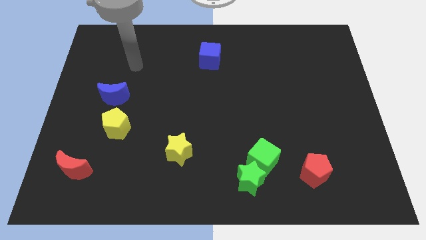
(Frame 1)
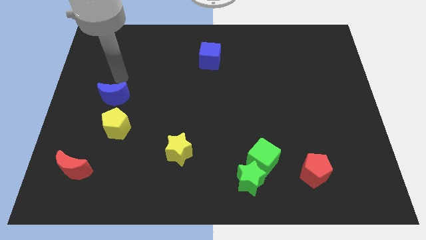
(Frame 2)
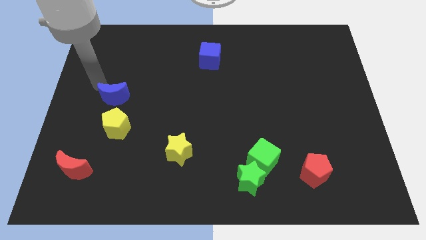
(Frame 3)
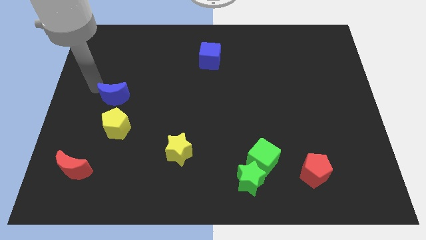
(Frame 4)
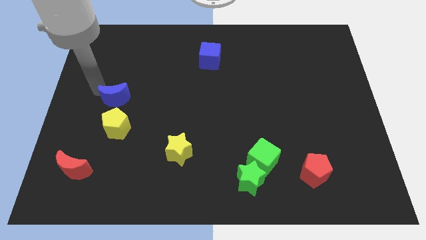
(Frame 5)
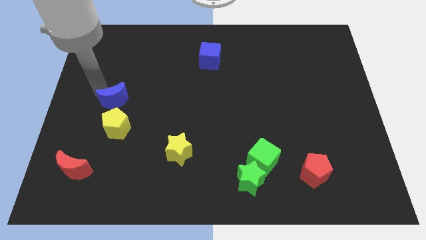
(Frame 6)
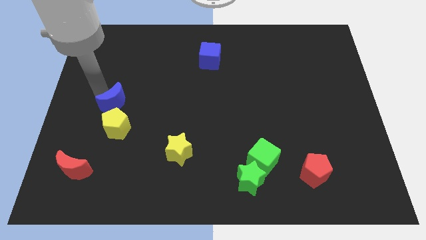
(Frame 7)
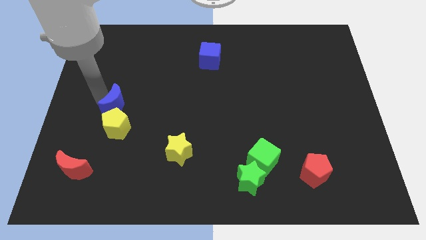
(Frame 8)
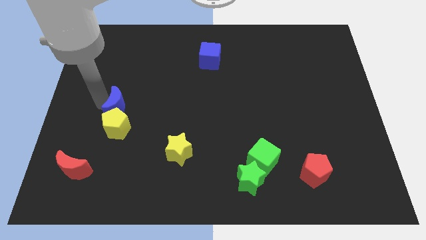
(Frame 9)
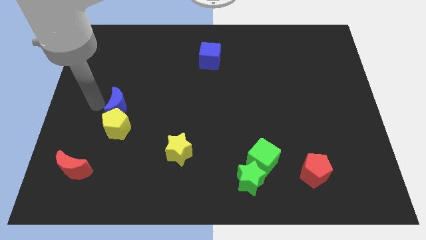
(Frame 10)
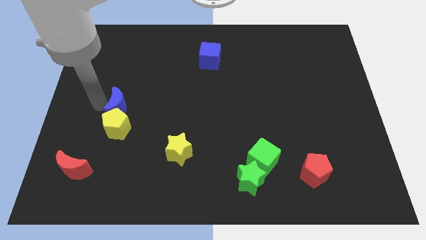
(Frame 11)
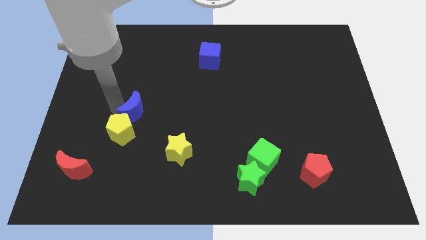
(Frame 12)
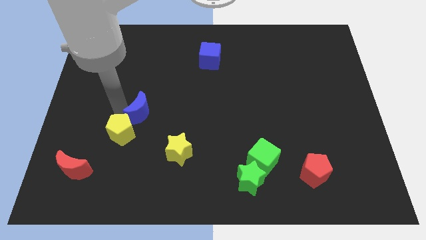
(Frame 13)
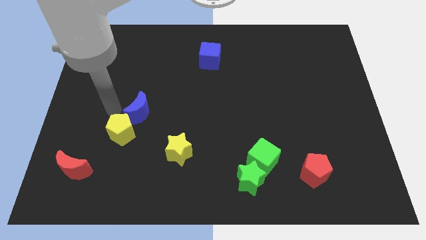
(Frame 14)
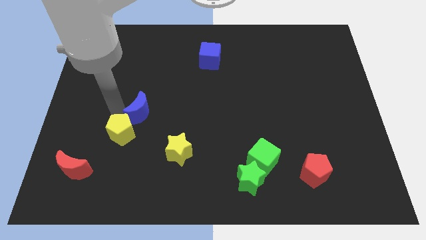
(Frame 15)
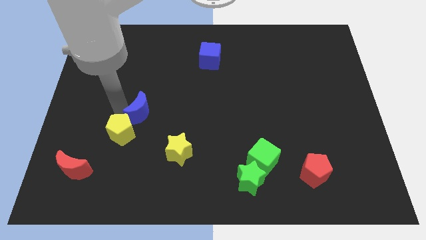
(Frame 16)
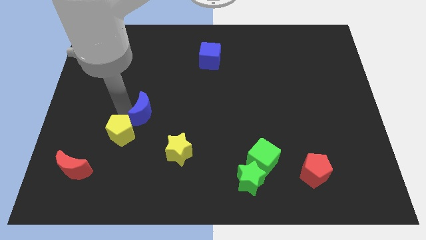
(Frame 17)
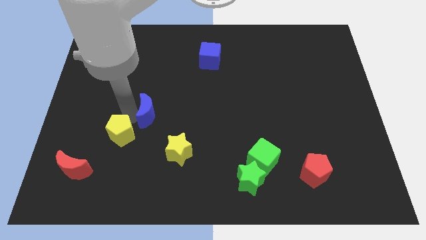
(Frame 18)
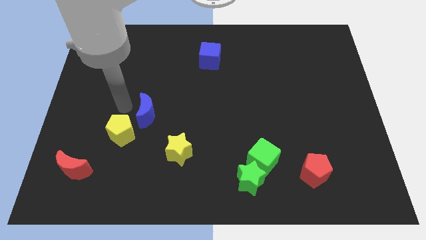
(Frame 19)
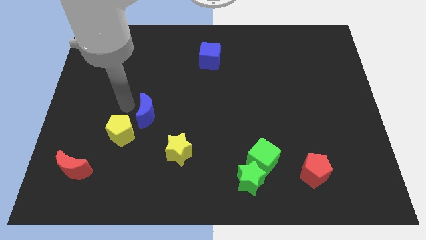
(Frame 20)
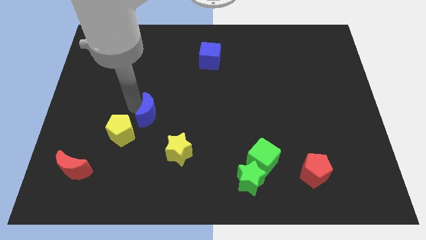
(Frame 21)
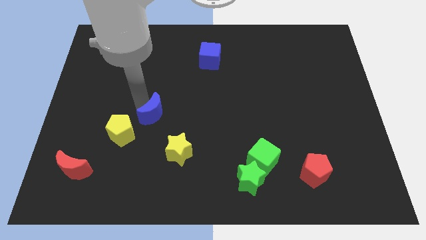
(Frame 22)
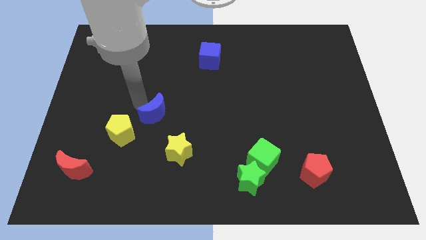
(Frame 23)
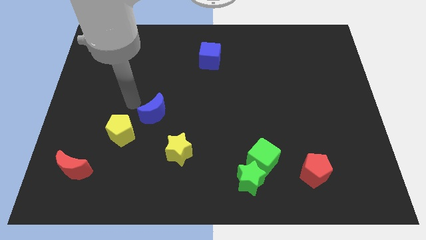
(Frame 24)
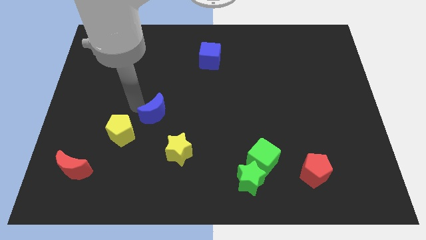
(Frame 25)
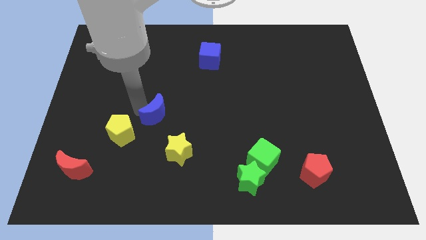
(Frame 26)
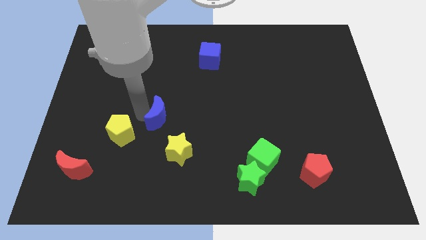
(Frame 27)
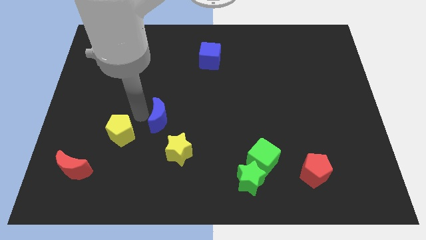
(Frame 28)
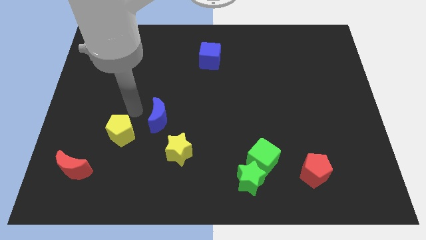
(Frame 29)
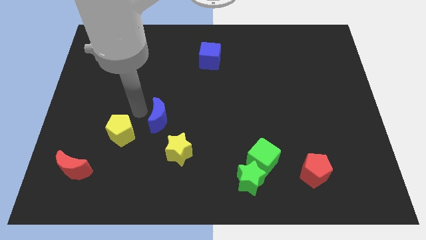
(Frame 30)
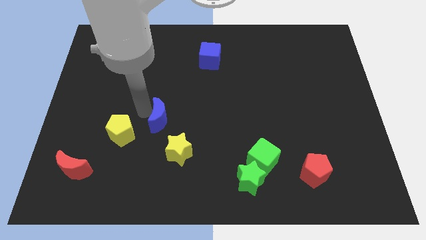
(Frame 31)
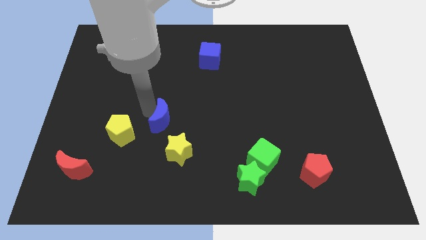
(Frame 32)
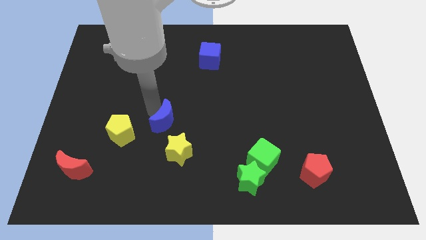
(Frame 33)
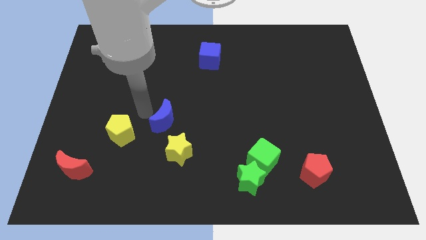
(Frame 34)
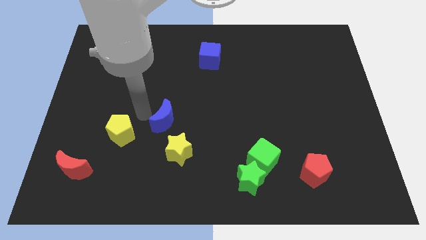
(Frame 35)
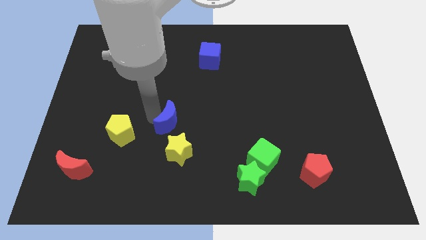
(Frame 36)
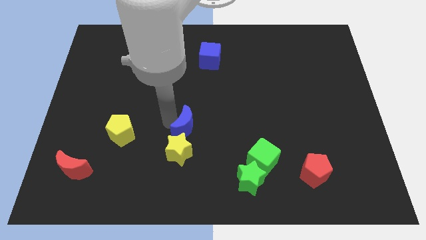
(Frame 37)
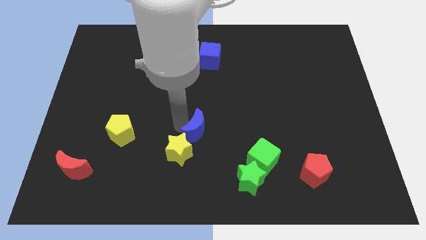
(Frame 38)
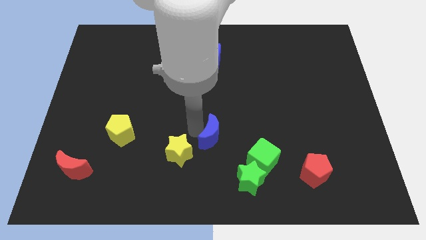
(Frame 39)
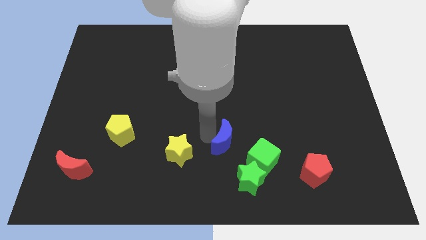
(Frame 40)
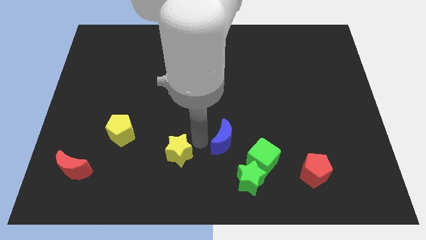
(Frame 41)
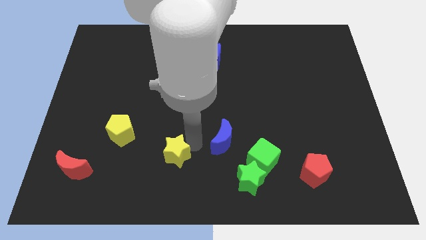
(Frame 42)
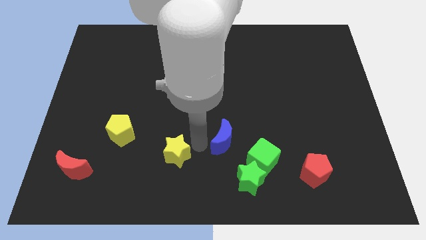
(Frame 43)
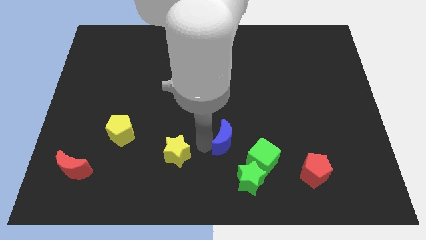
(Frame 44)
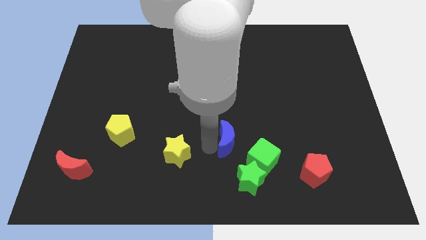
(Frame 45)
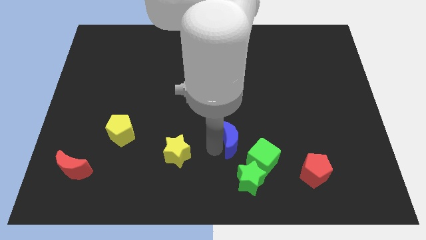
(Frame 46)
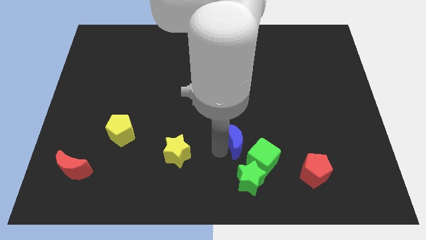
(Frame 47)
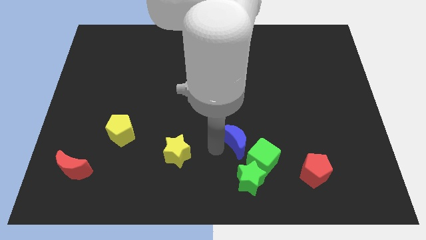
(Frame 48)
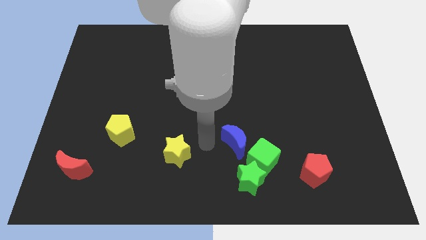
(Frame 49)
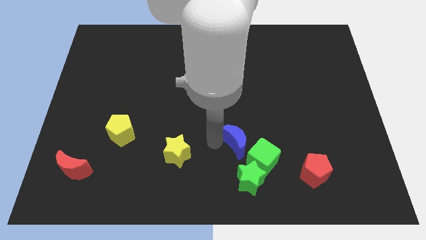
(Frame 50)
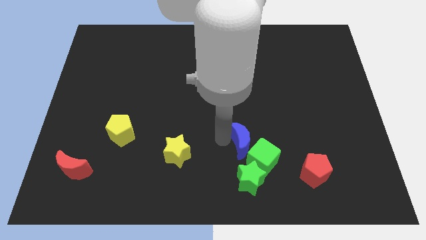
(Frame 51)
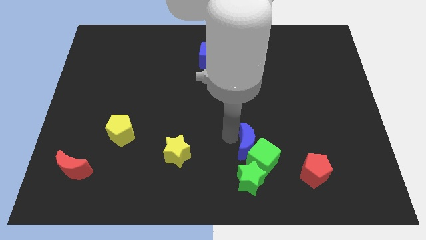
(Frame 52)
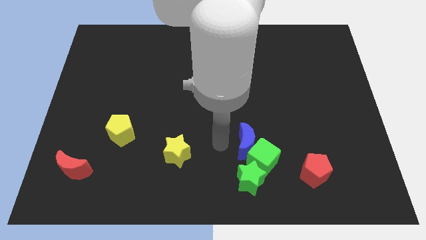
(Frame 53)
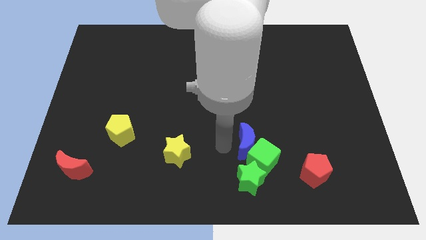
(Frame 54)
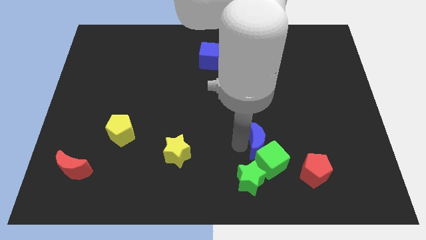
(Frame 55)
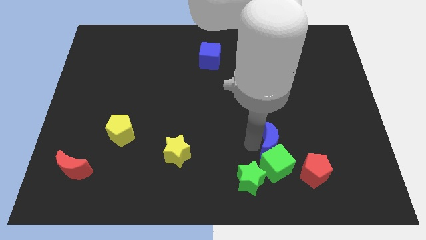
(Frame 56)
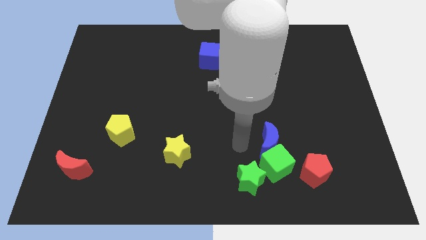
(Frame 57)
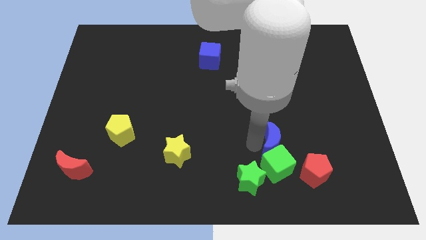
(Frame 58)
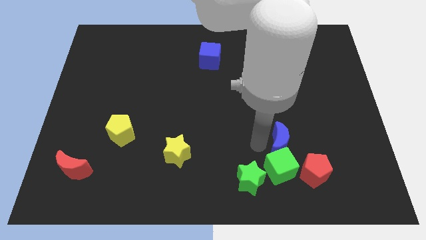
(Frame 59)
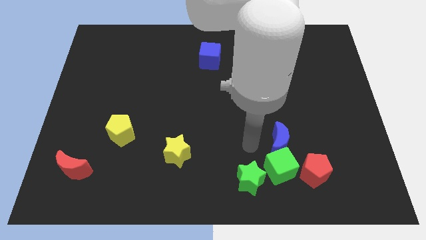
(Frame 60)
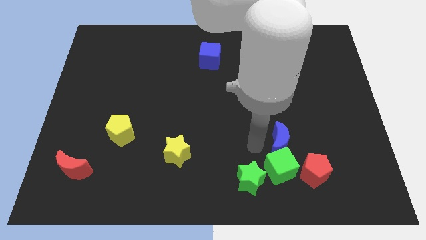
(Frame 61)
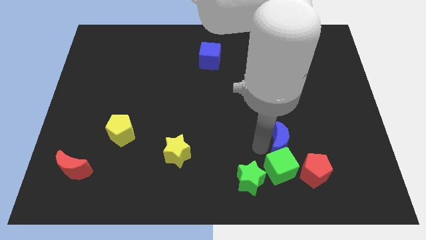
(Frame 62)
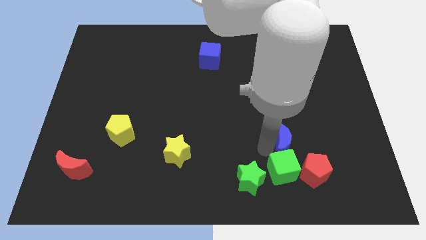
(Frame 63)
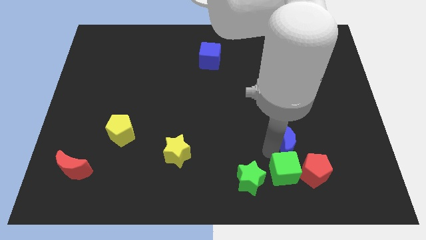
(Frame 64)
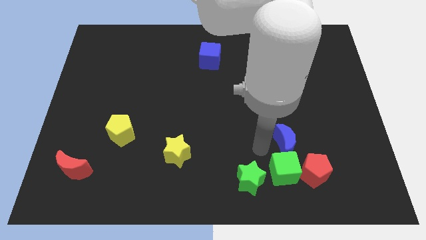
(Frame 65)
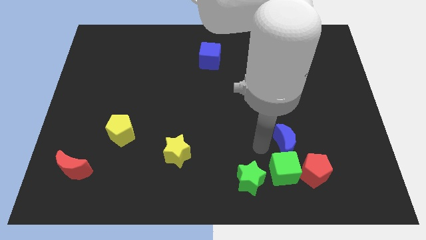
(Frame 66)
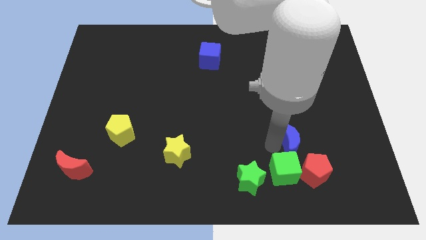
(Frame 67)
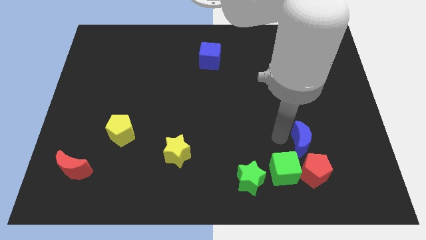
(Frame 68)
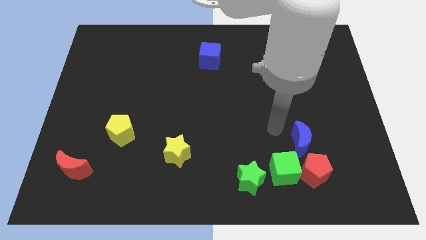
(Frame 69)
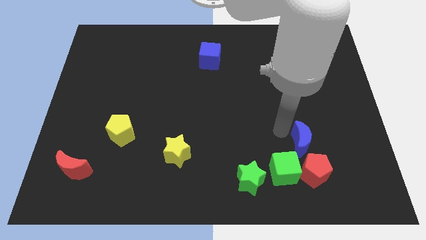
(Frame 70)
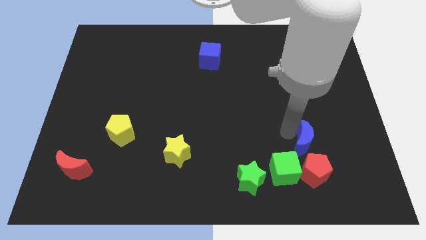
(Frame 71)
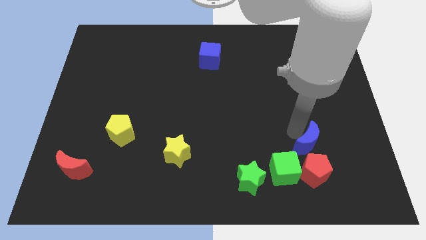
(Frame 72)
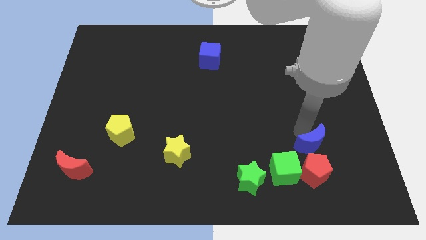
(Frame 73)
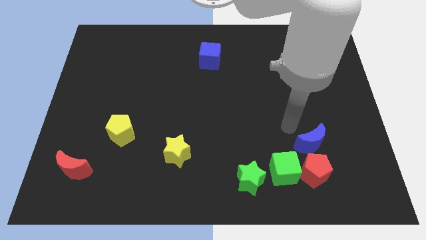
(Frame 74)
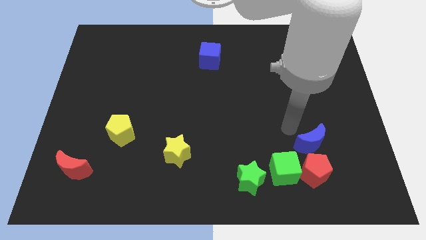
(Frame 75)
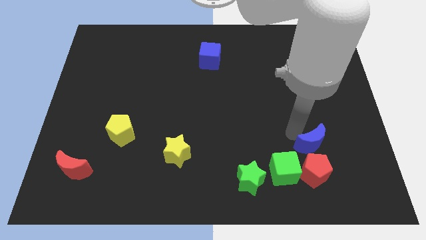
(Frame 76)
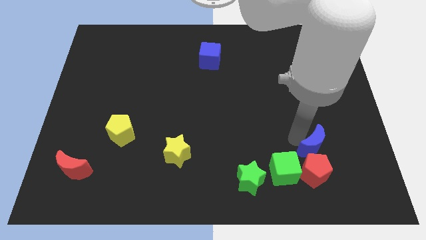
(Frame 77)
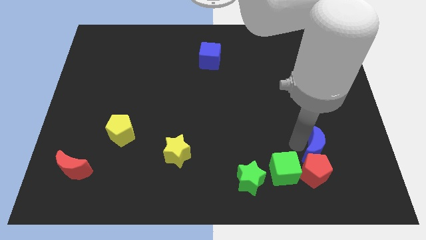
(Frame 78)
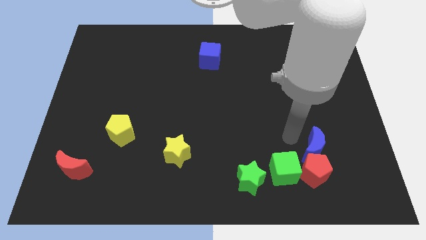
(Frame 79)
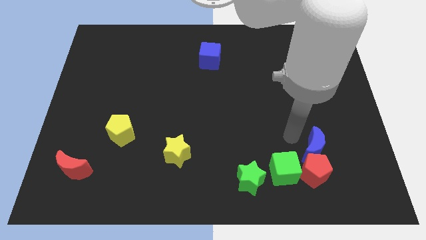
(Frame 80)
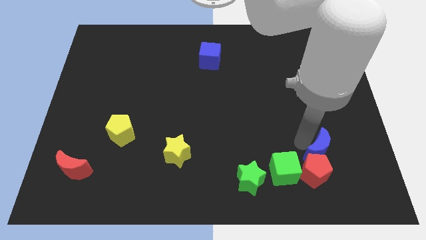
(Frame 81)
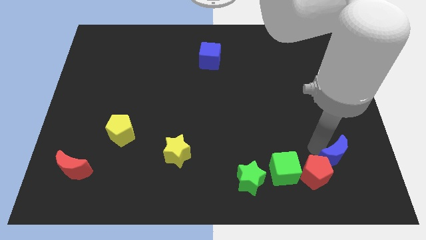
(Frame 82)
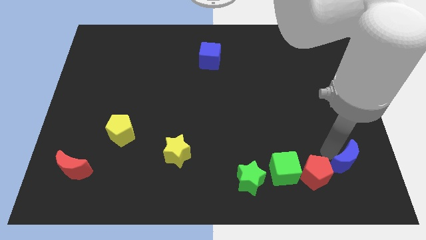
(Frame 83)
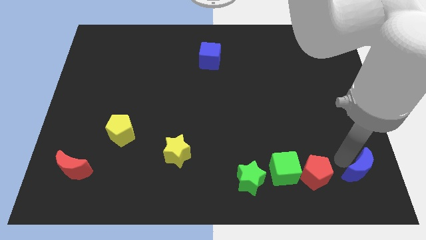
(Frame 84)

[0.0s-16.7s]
move the blue moon to the bottom right corner
